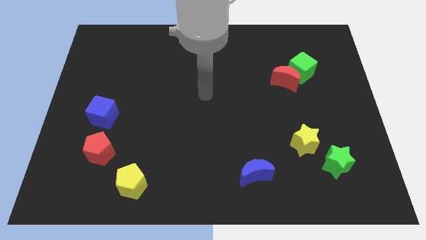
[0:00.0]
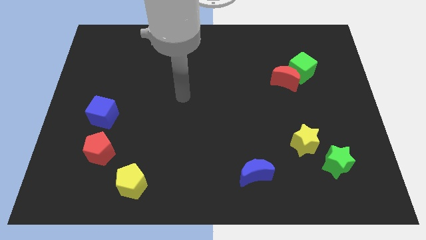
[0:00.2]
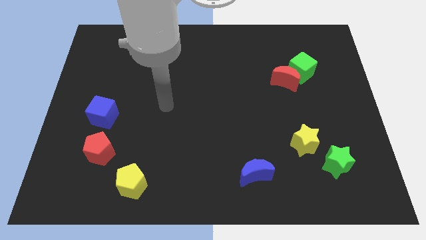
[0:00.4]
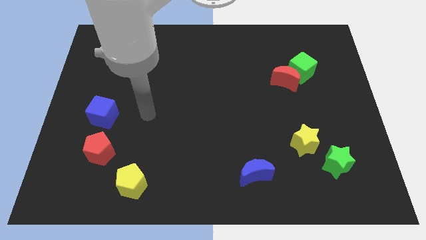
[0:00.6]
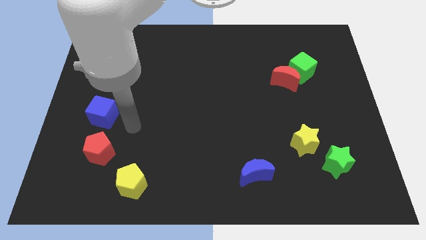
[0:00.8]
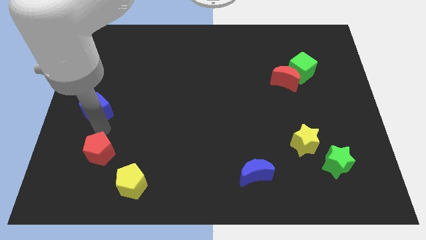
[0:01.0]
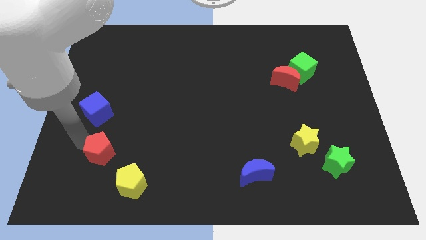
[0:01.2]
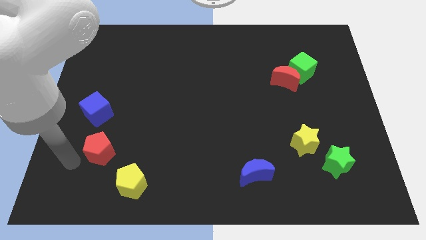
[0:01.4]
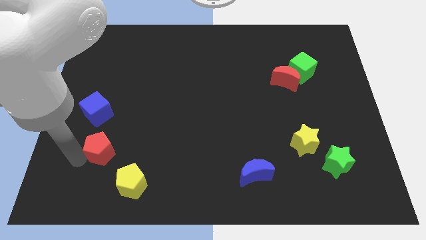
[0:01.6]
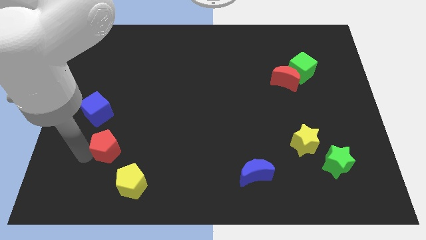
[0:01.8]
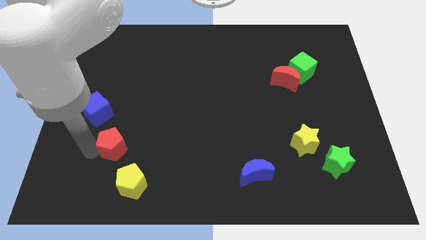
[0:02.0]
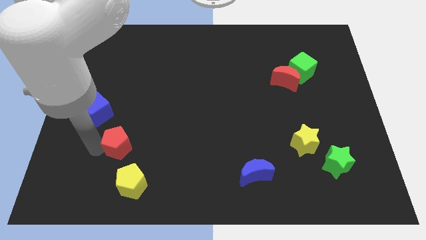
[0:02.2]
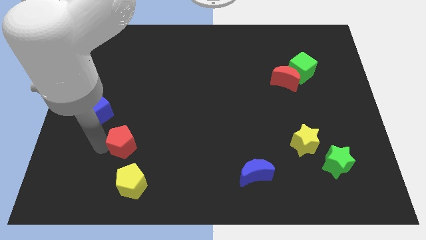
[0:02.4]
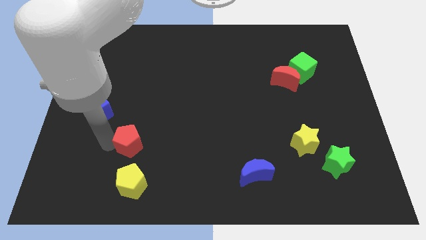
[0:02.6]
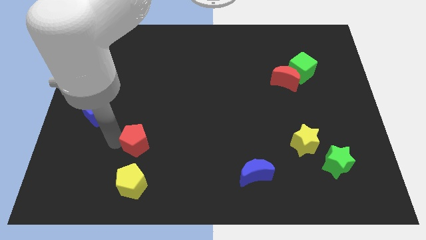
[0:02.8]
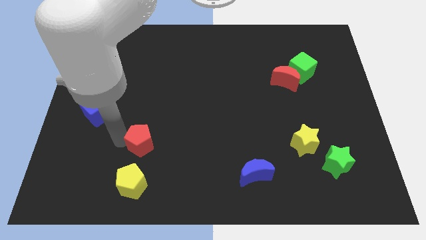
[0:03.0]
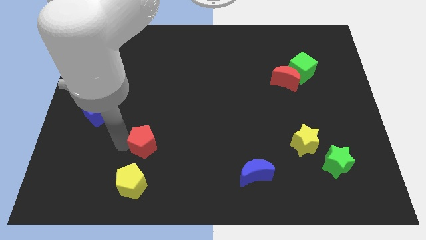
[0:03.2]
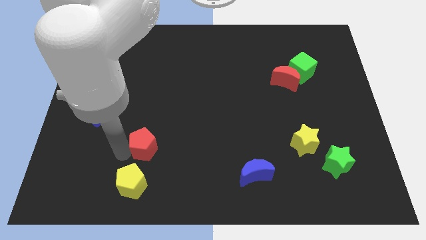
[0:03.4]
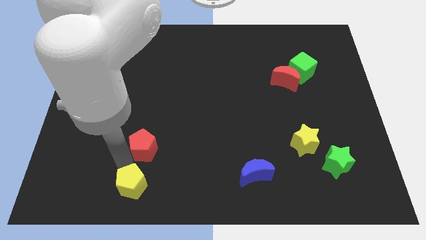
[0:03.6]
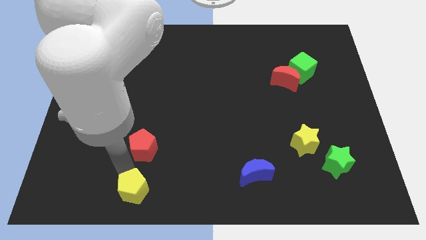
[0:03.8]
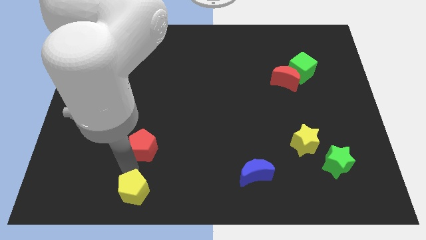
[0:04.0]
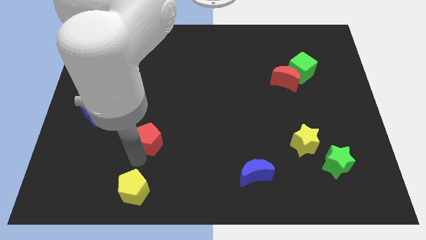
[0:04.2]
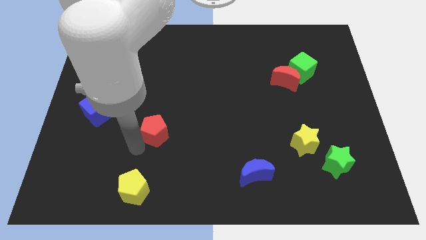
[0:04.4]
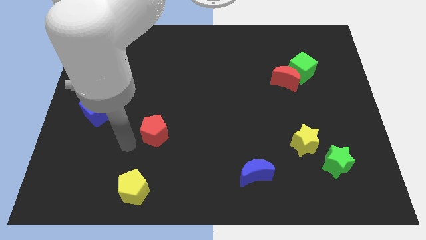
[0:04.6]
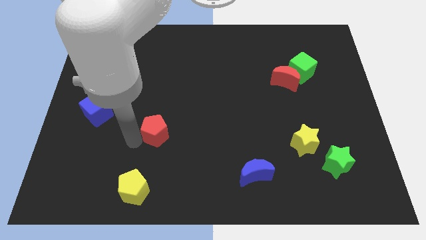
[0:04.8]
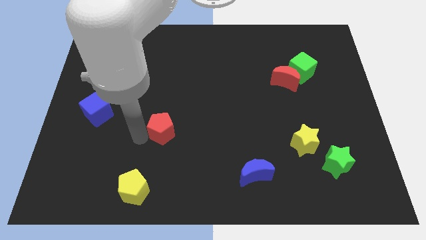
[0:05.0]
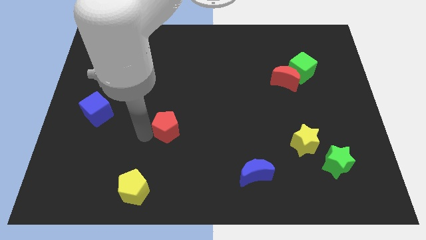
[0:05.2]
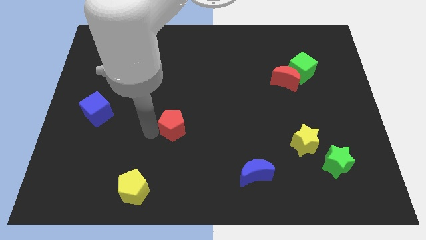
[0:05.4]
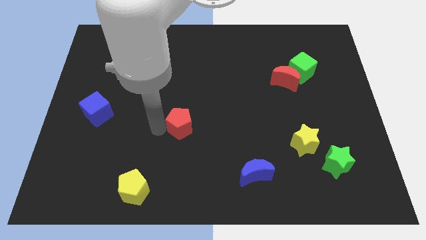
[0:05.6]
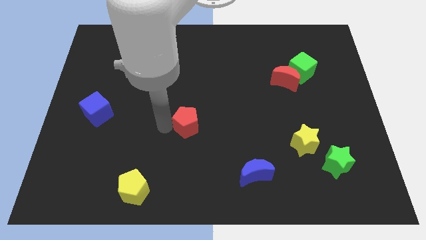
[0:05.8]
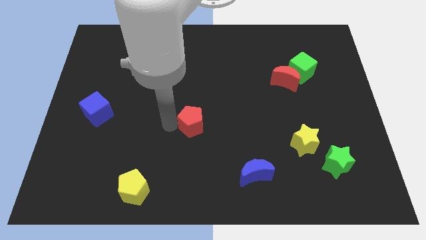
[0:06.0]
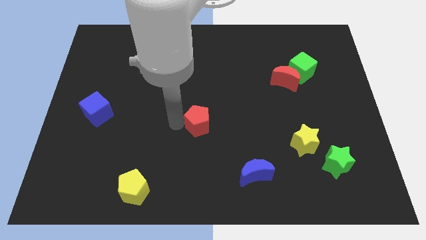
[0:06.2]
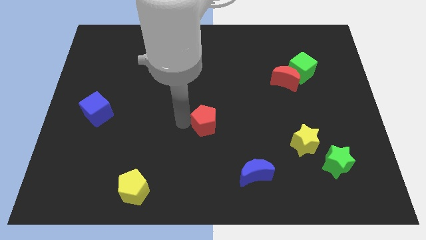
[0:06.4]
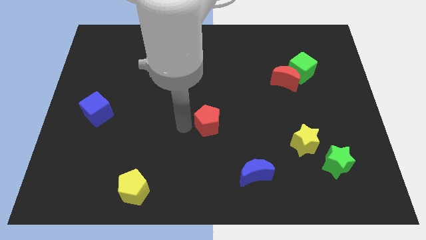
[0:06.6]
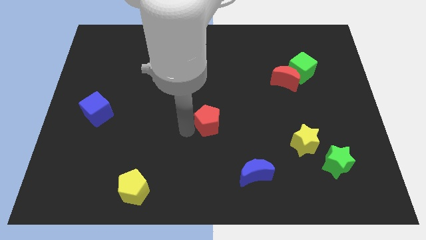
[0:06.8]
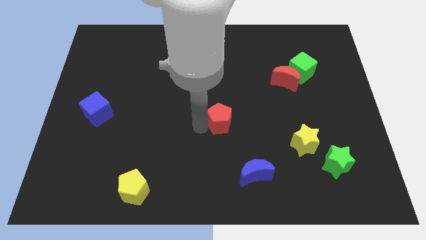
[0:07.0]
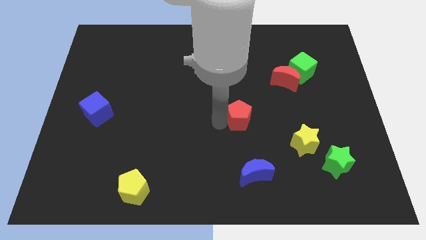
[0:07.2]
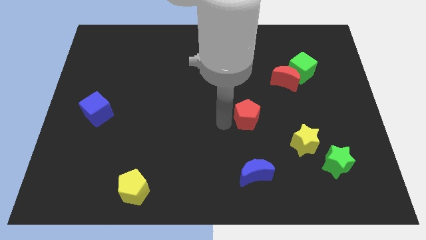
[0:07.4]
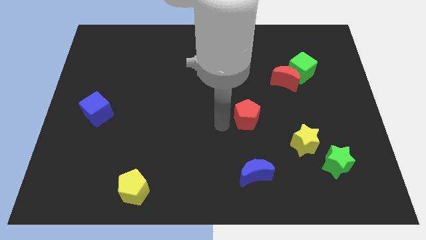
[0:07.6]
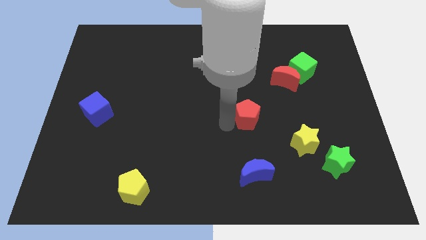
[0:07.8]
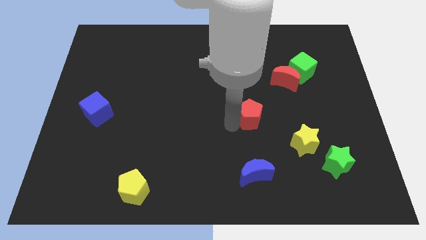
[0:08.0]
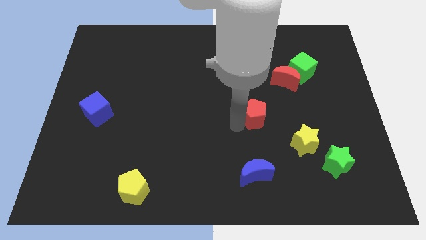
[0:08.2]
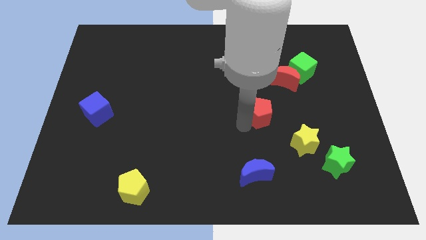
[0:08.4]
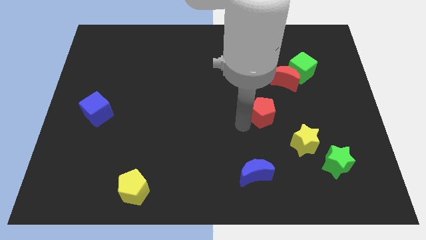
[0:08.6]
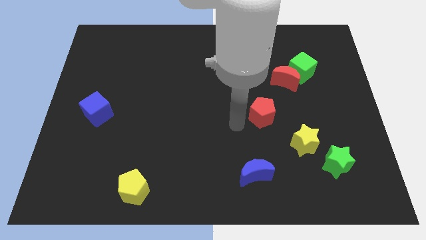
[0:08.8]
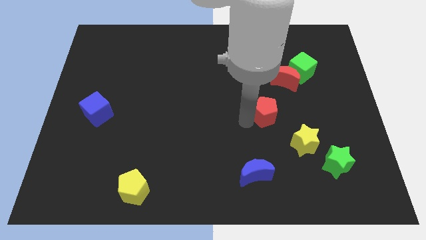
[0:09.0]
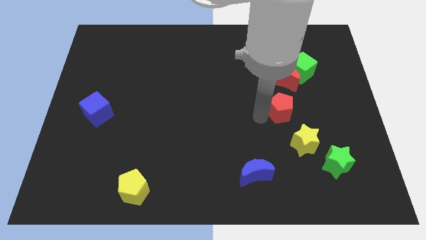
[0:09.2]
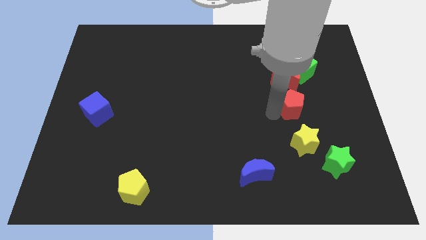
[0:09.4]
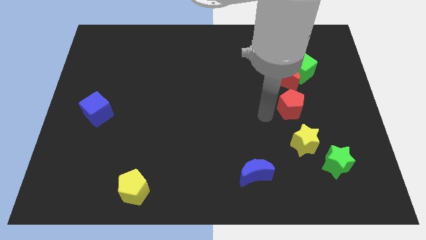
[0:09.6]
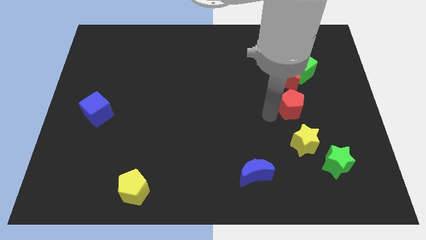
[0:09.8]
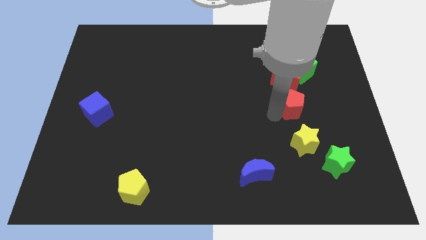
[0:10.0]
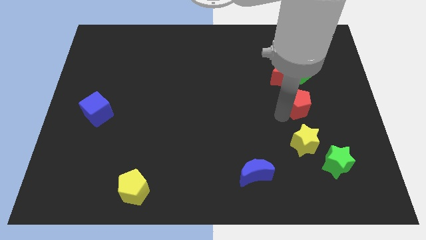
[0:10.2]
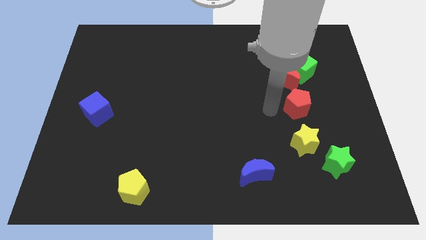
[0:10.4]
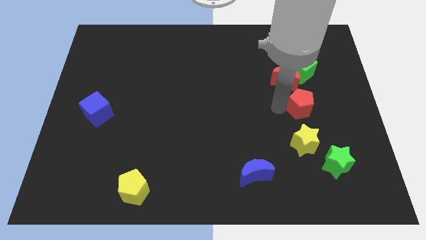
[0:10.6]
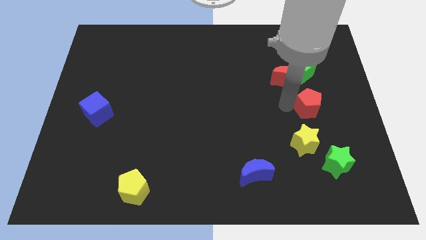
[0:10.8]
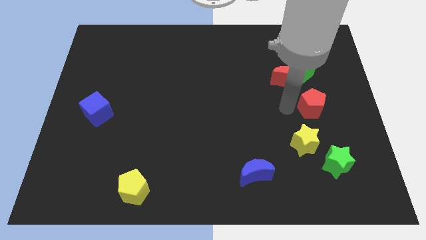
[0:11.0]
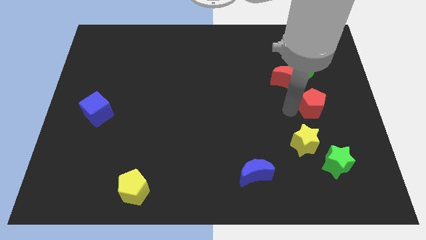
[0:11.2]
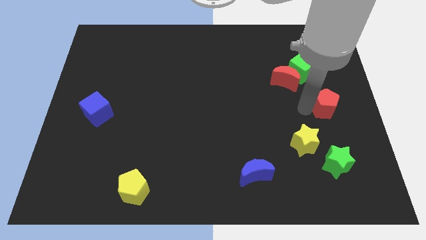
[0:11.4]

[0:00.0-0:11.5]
put the red pentagon to the right side

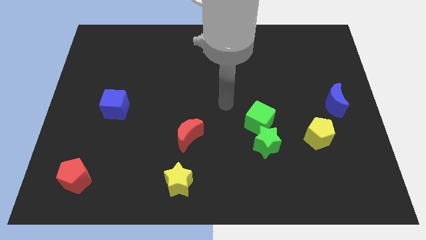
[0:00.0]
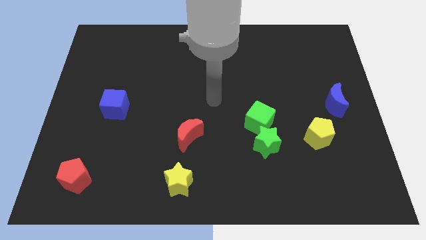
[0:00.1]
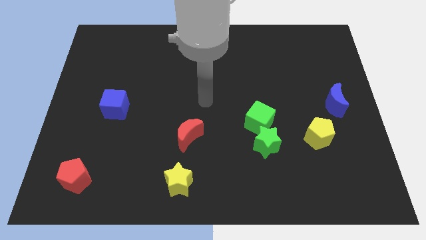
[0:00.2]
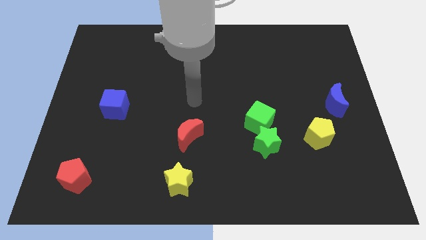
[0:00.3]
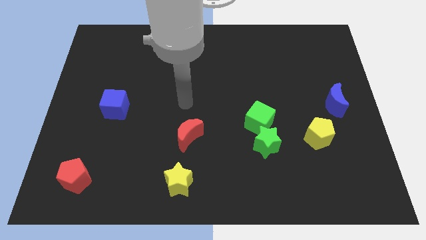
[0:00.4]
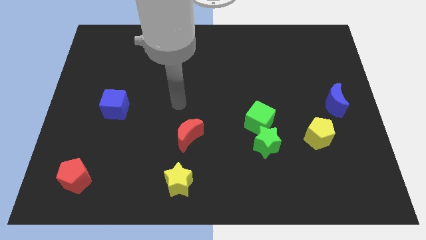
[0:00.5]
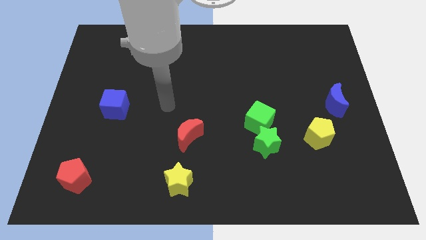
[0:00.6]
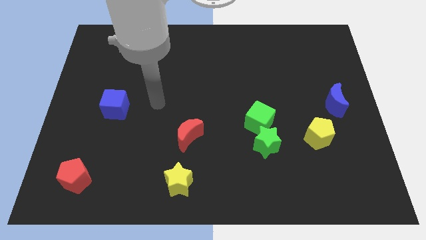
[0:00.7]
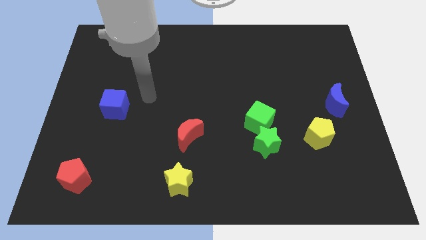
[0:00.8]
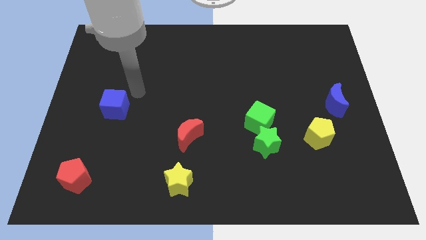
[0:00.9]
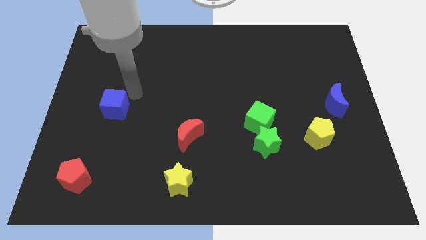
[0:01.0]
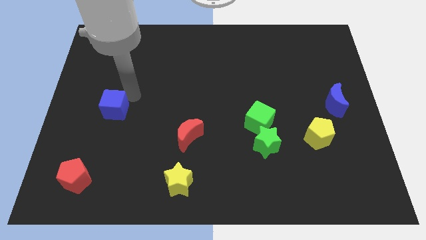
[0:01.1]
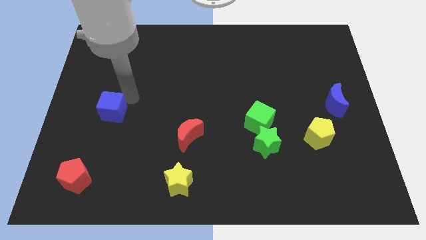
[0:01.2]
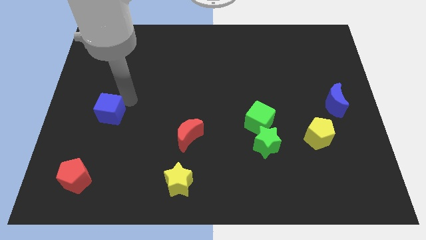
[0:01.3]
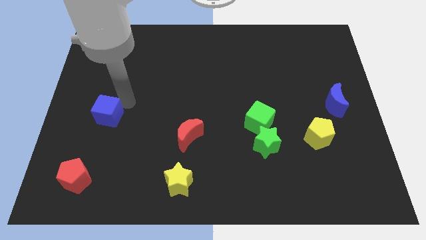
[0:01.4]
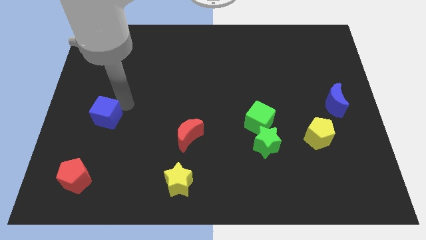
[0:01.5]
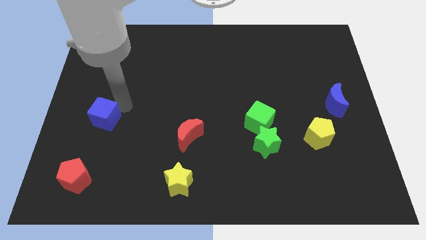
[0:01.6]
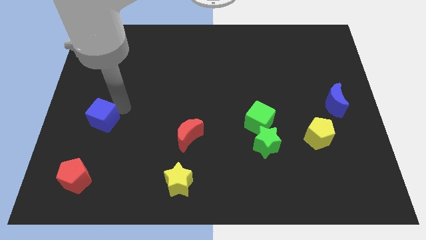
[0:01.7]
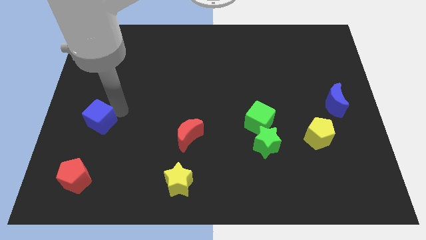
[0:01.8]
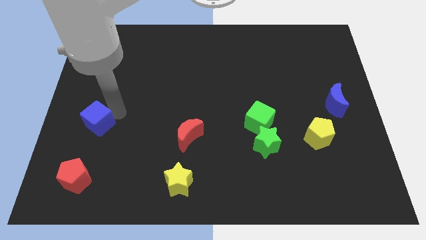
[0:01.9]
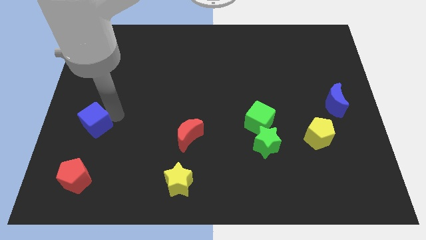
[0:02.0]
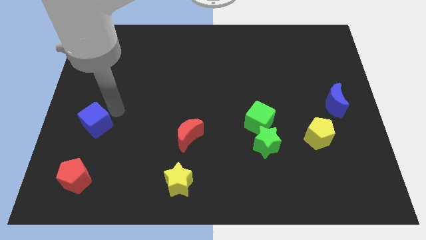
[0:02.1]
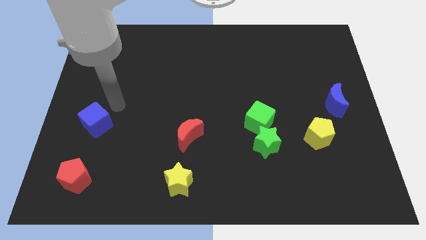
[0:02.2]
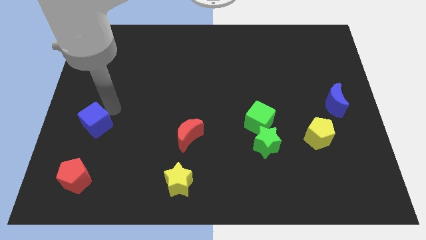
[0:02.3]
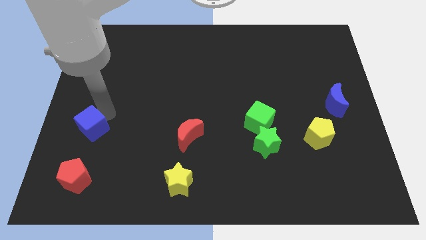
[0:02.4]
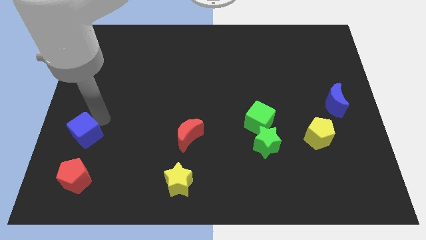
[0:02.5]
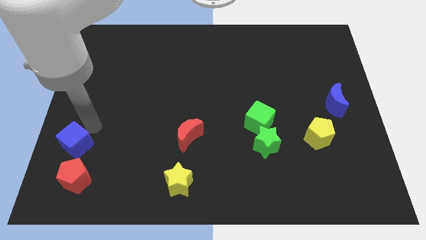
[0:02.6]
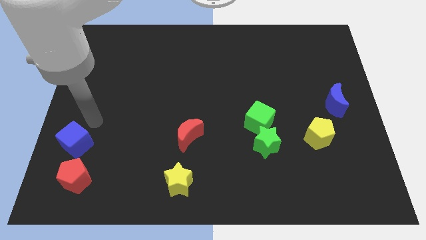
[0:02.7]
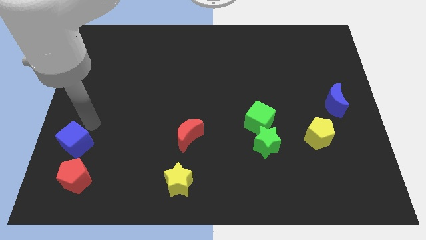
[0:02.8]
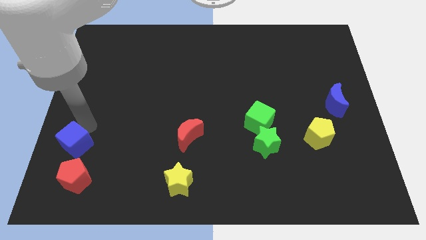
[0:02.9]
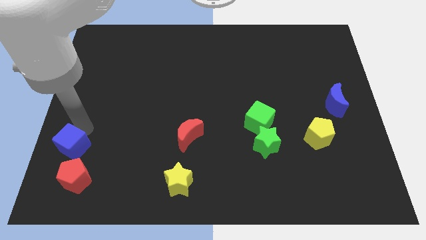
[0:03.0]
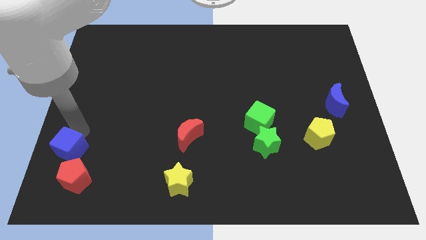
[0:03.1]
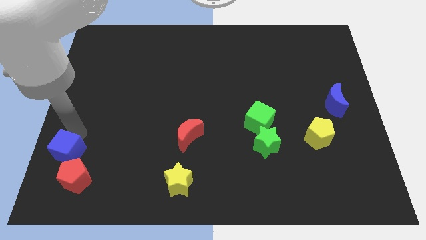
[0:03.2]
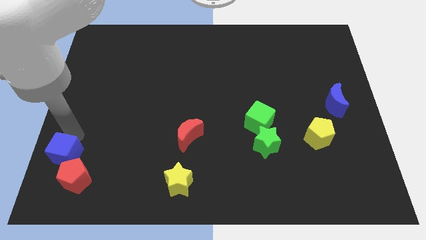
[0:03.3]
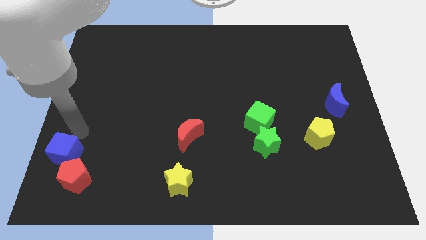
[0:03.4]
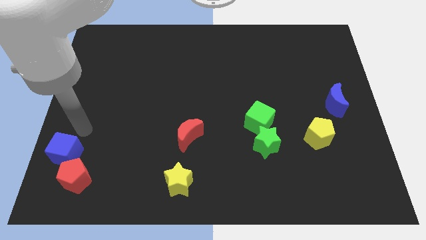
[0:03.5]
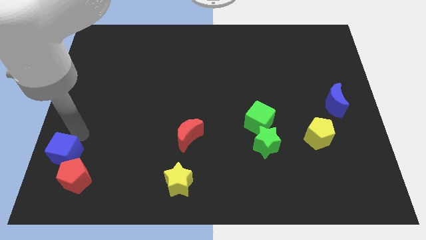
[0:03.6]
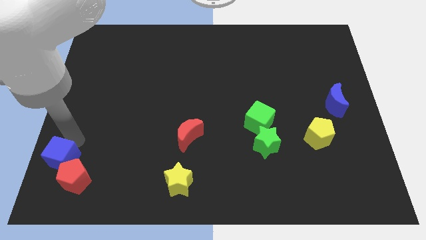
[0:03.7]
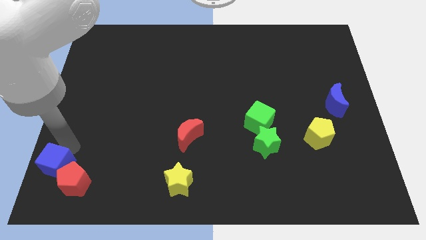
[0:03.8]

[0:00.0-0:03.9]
put the blue cube to the bottom left corner
